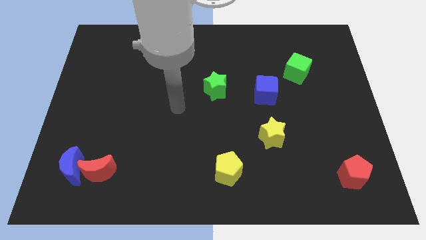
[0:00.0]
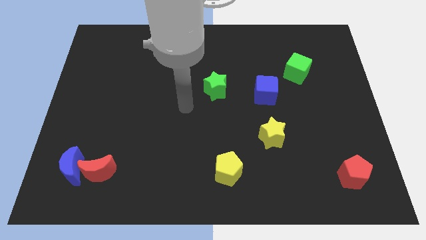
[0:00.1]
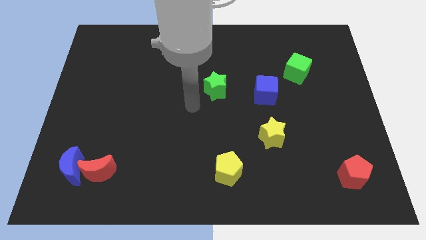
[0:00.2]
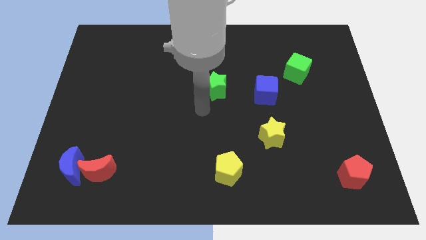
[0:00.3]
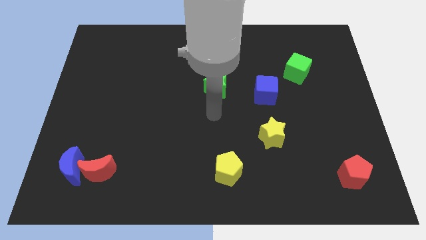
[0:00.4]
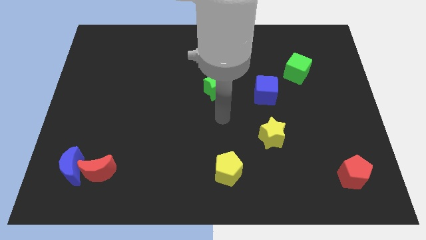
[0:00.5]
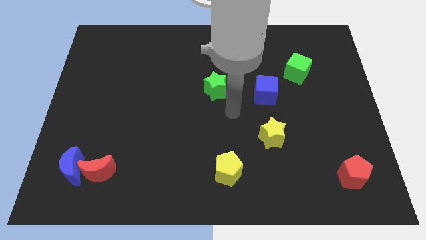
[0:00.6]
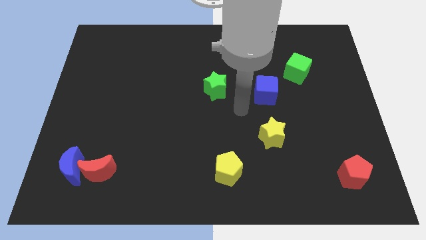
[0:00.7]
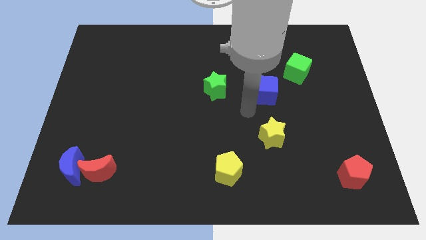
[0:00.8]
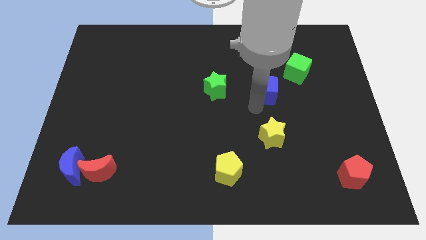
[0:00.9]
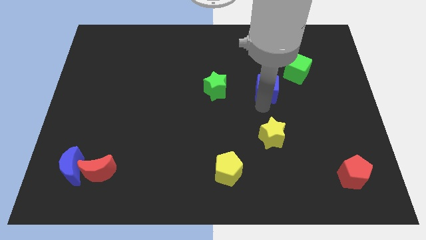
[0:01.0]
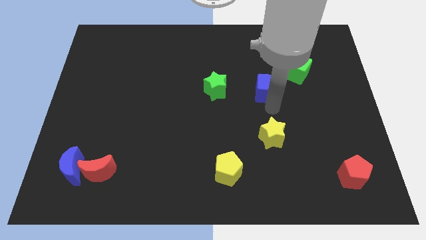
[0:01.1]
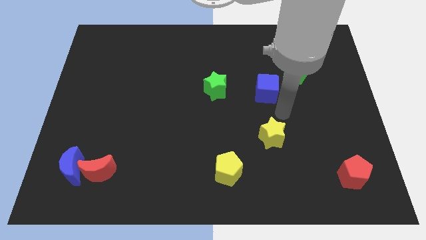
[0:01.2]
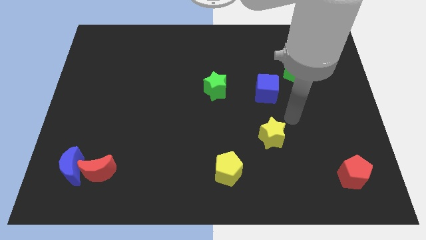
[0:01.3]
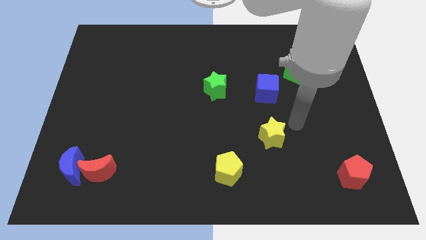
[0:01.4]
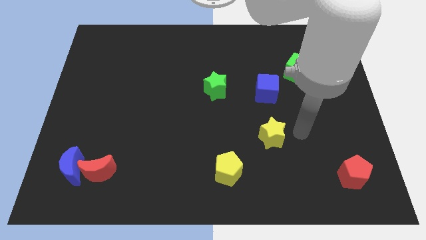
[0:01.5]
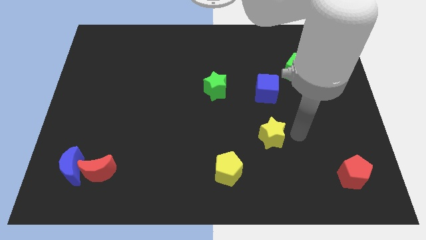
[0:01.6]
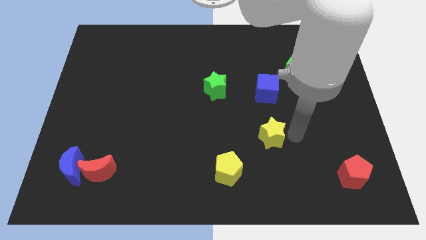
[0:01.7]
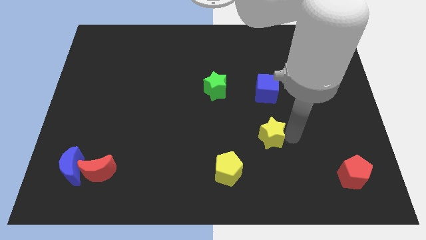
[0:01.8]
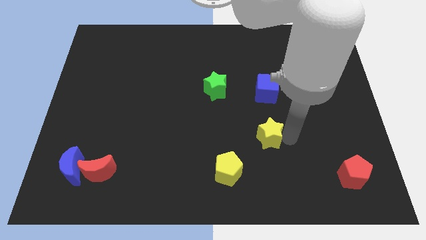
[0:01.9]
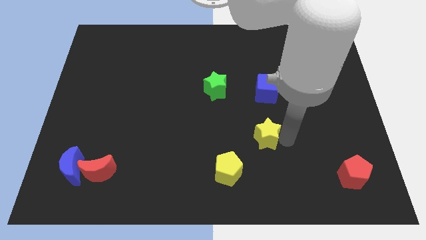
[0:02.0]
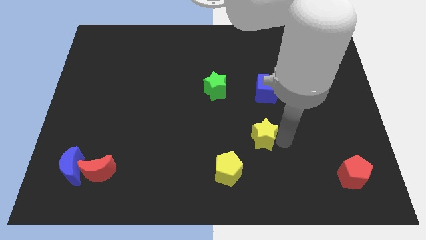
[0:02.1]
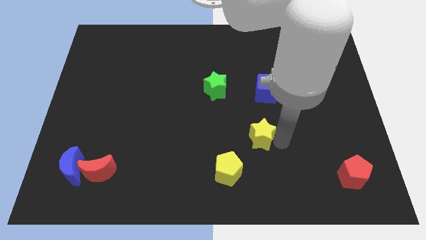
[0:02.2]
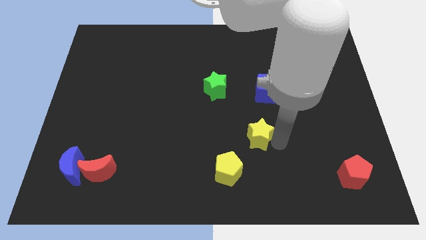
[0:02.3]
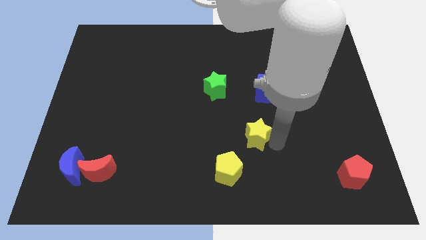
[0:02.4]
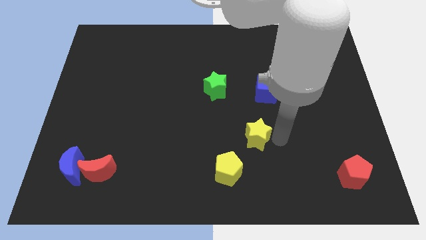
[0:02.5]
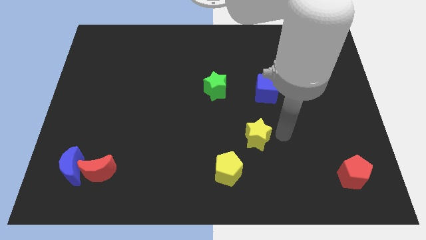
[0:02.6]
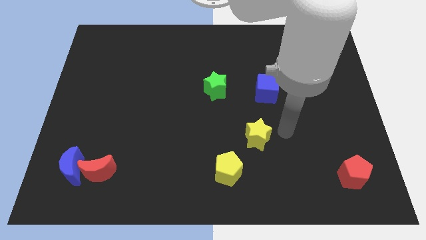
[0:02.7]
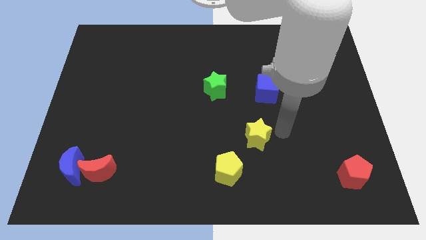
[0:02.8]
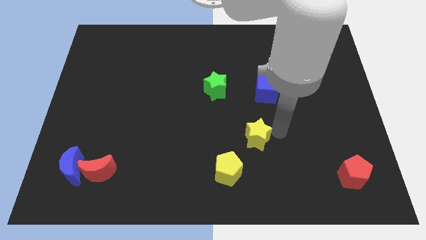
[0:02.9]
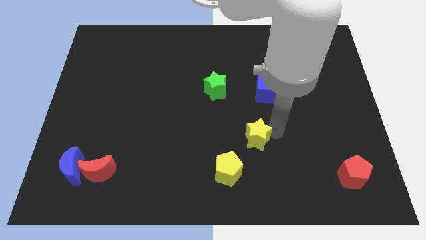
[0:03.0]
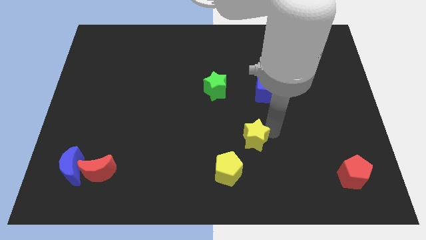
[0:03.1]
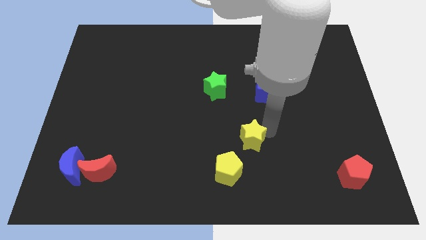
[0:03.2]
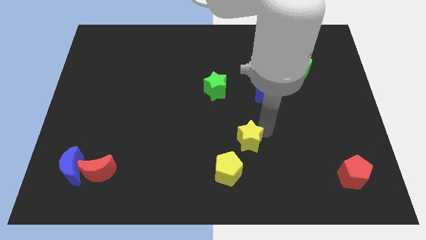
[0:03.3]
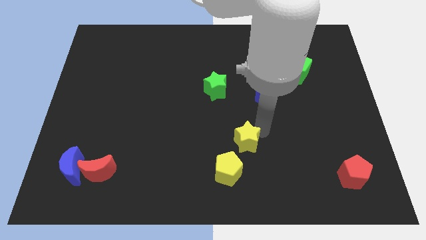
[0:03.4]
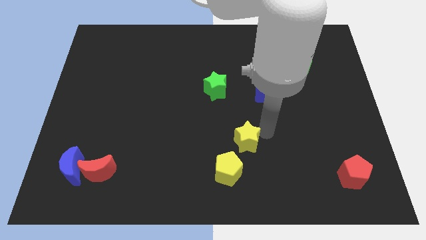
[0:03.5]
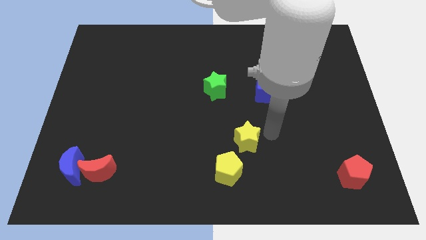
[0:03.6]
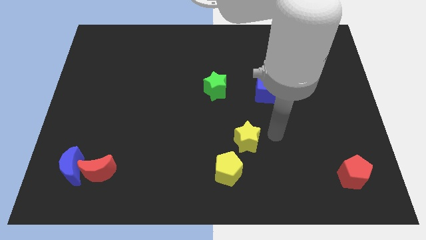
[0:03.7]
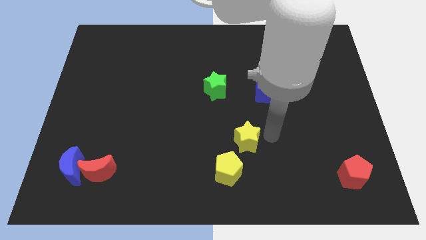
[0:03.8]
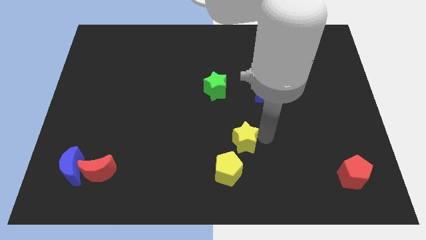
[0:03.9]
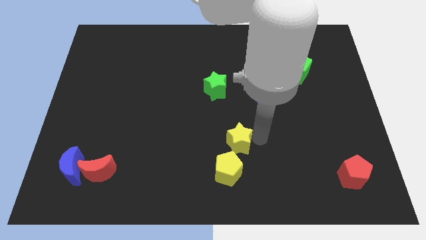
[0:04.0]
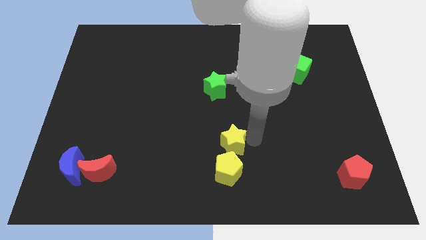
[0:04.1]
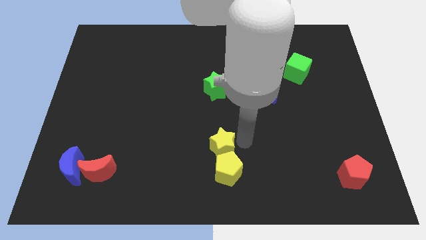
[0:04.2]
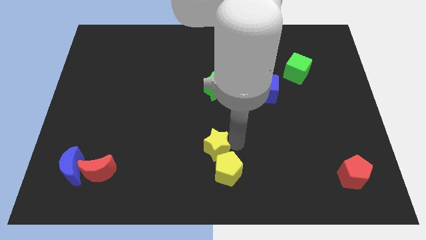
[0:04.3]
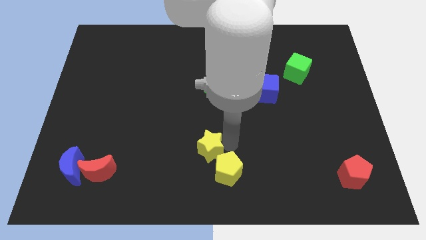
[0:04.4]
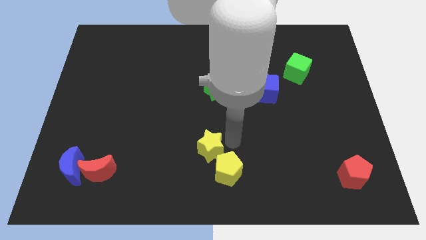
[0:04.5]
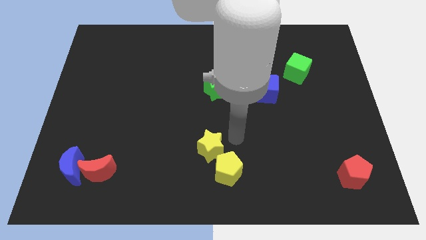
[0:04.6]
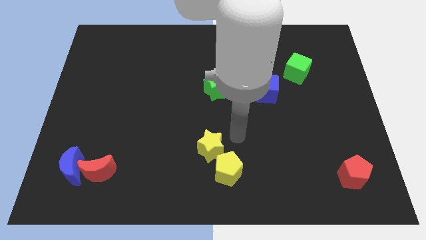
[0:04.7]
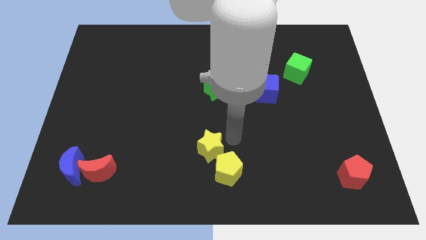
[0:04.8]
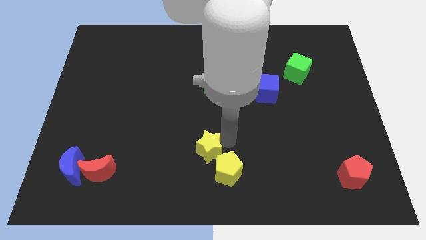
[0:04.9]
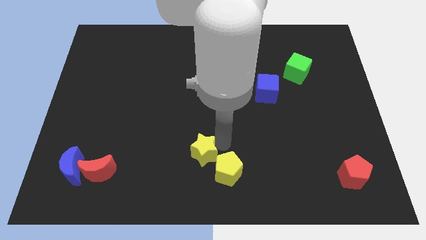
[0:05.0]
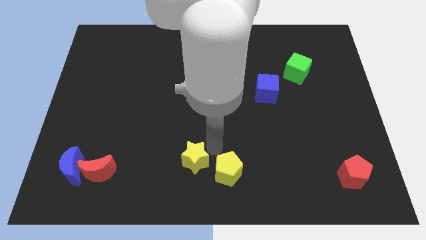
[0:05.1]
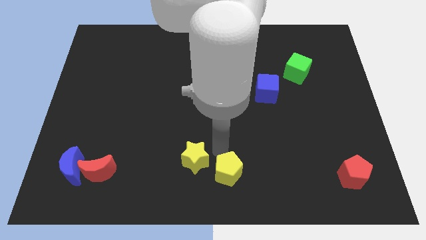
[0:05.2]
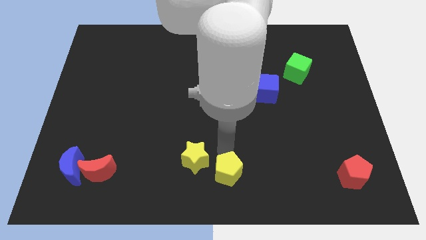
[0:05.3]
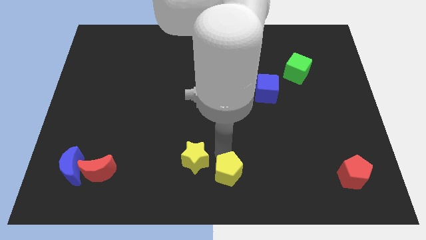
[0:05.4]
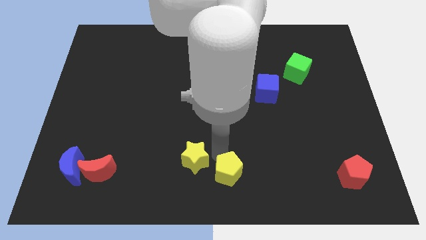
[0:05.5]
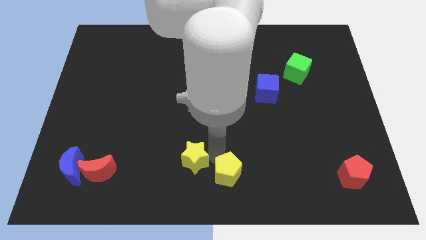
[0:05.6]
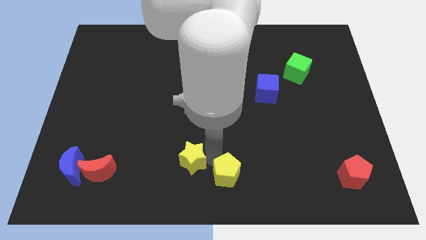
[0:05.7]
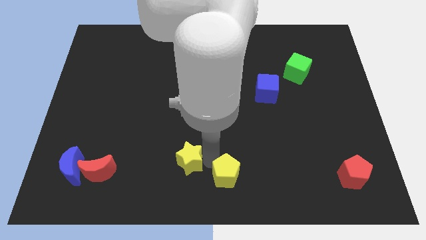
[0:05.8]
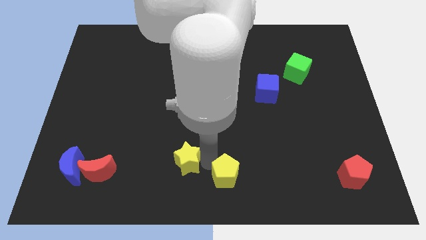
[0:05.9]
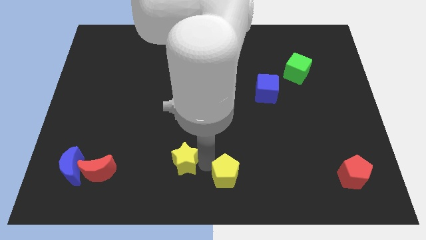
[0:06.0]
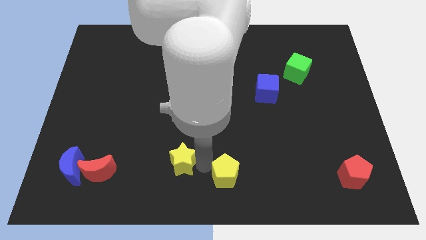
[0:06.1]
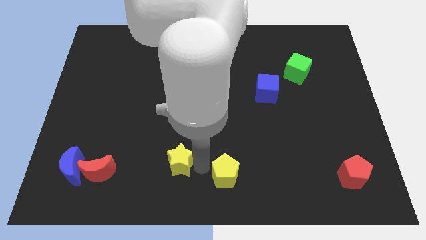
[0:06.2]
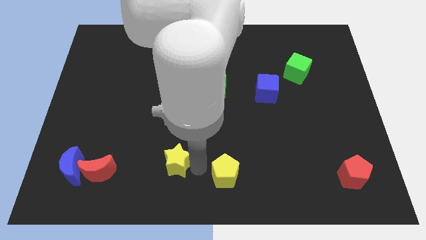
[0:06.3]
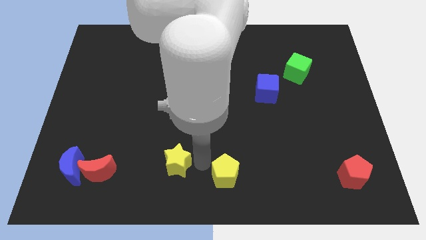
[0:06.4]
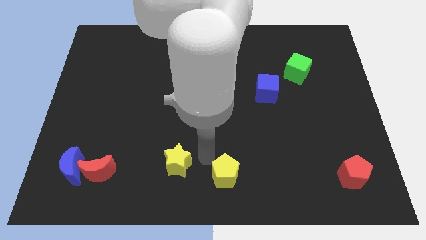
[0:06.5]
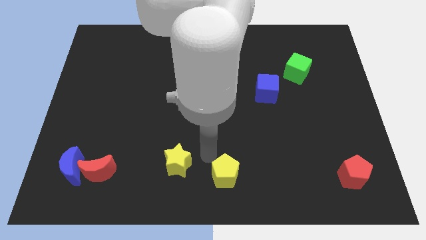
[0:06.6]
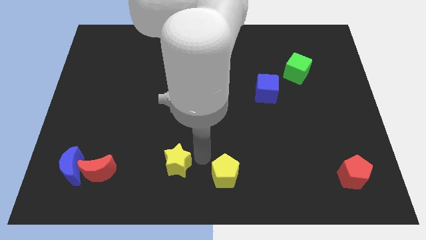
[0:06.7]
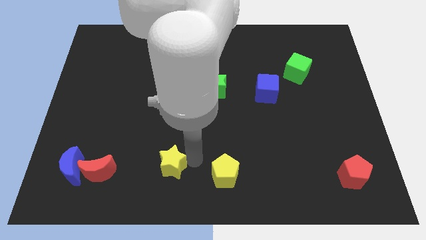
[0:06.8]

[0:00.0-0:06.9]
put the yellow star just right of the red moon

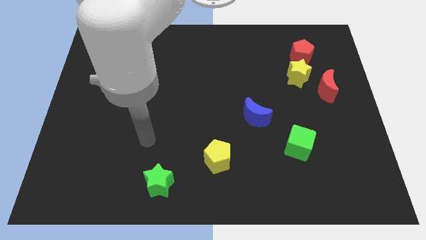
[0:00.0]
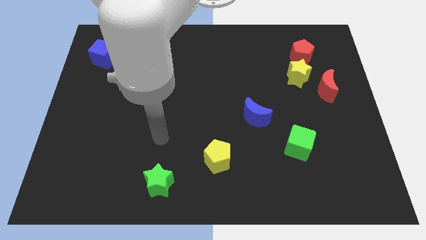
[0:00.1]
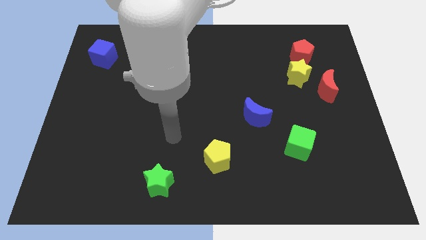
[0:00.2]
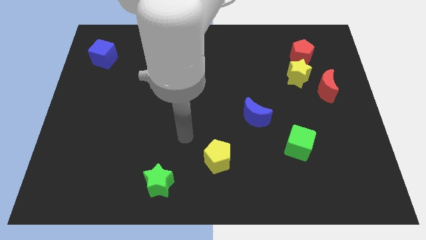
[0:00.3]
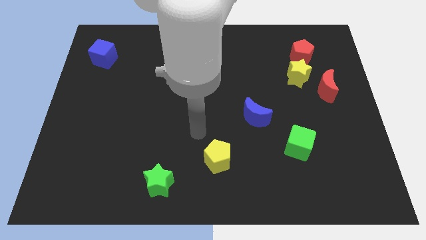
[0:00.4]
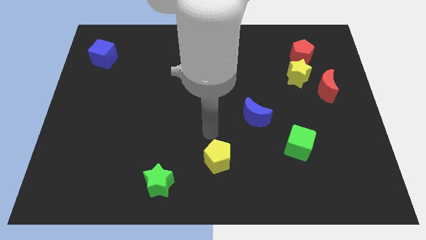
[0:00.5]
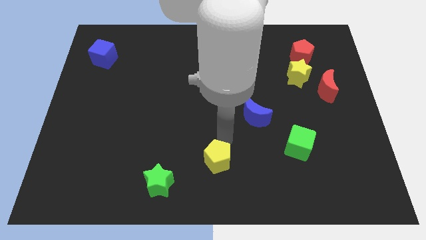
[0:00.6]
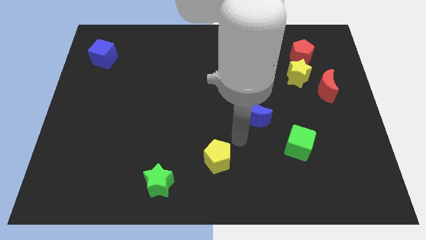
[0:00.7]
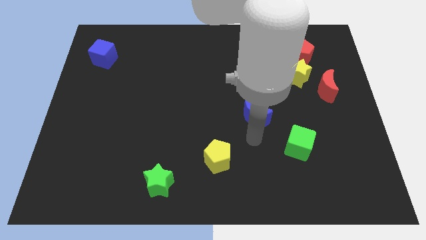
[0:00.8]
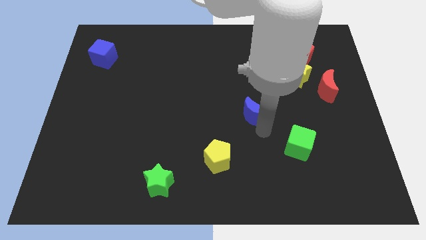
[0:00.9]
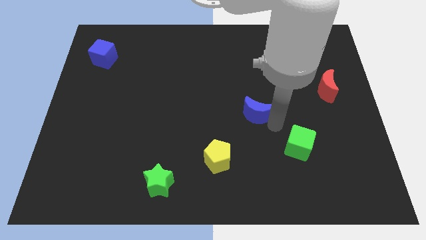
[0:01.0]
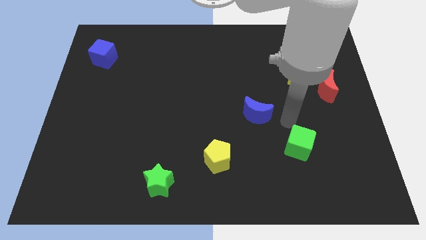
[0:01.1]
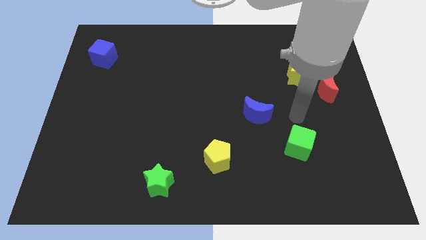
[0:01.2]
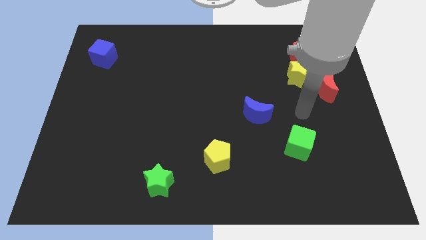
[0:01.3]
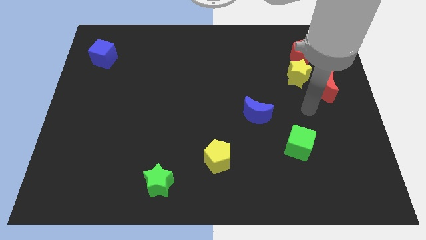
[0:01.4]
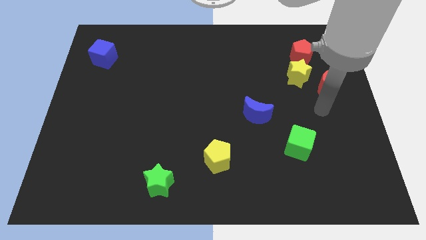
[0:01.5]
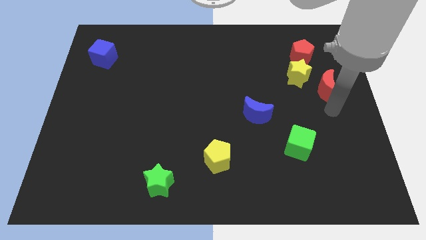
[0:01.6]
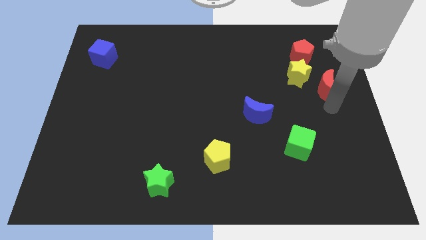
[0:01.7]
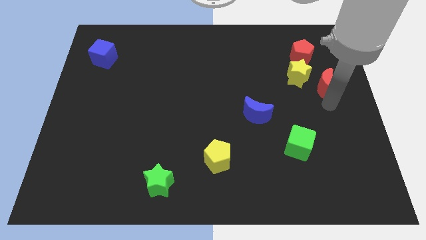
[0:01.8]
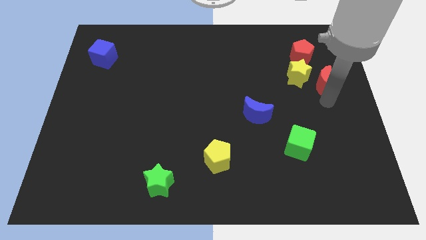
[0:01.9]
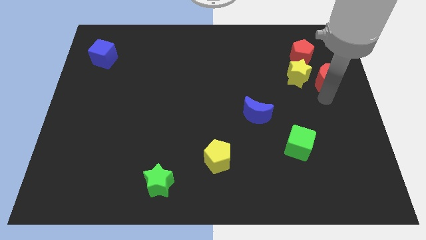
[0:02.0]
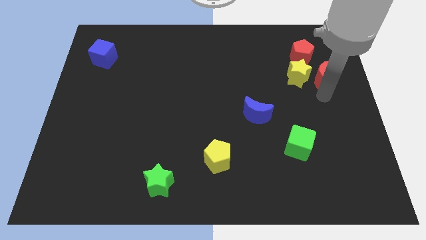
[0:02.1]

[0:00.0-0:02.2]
push the red moon diagonally up and to the right of the yellow star
